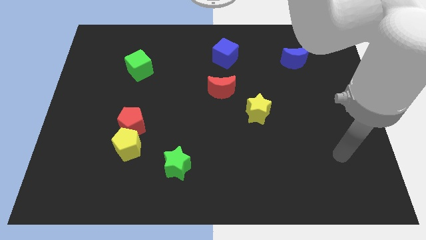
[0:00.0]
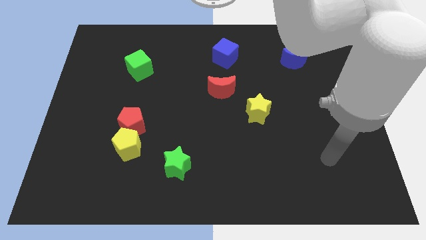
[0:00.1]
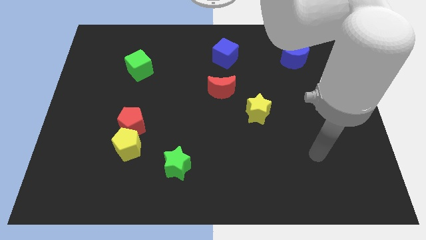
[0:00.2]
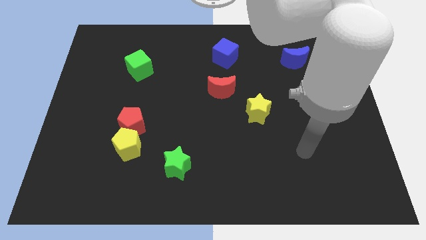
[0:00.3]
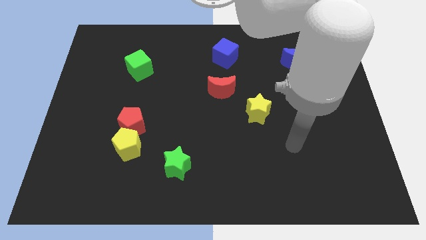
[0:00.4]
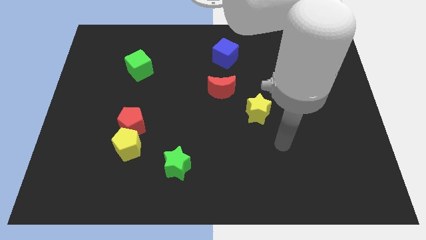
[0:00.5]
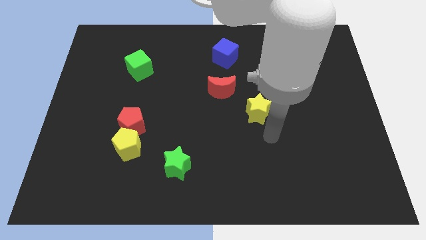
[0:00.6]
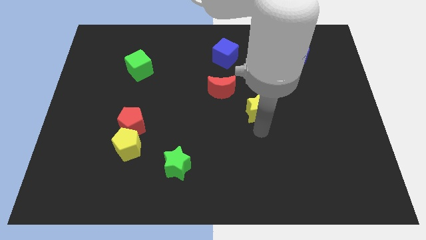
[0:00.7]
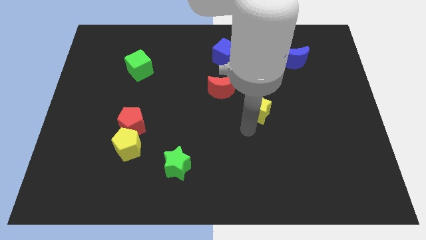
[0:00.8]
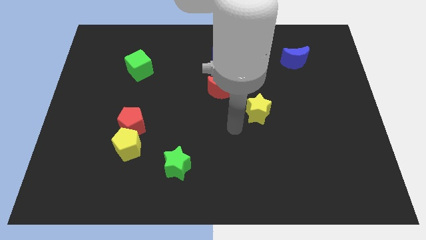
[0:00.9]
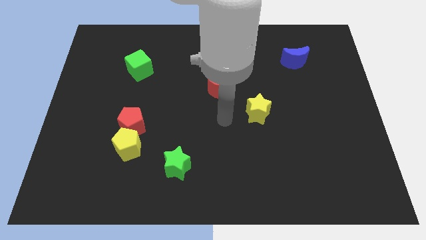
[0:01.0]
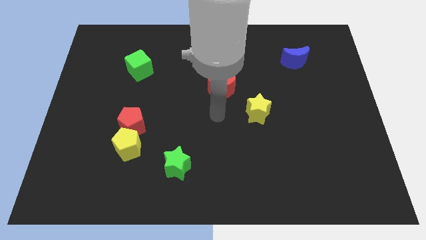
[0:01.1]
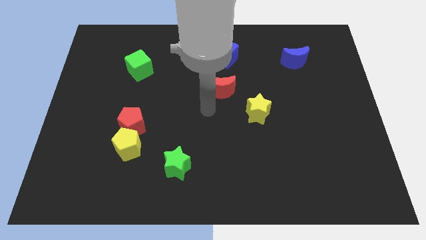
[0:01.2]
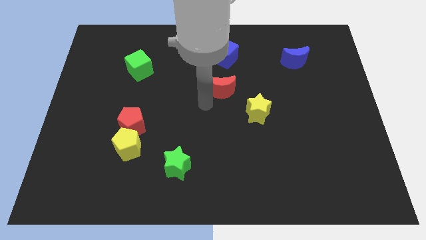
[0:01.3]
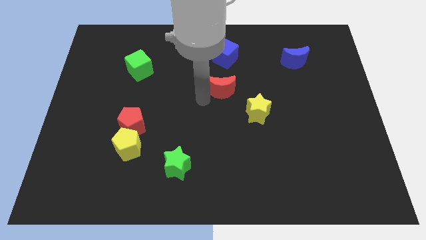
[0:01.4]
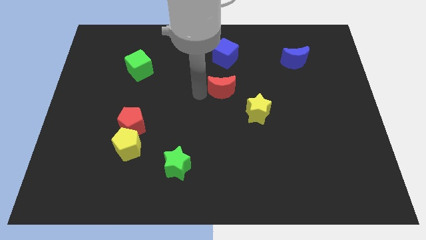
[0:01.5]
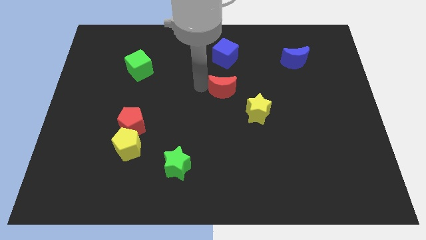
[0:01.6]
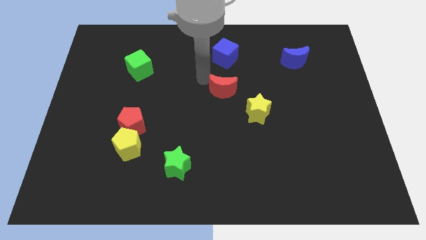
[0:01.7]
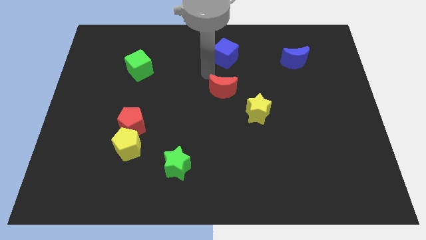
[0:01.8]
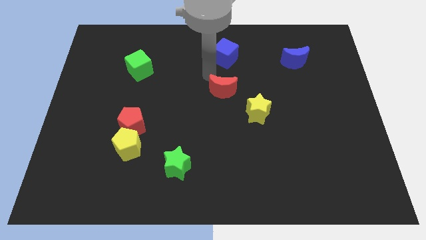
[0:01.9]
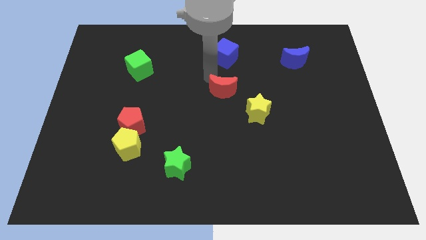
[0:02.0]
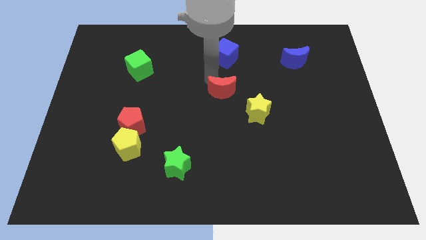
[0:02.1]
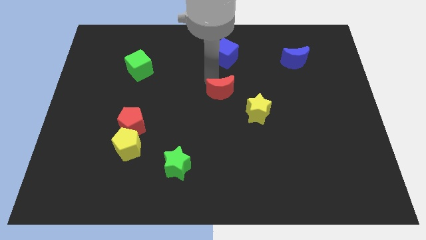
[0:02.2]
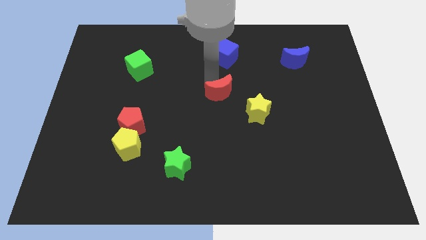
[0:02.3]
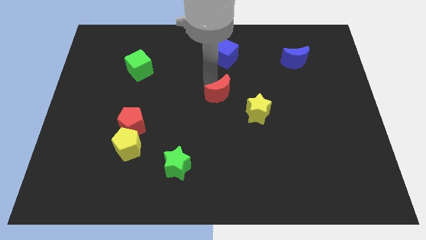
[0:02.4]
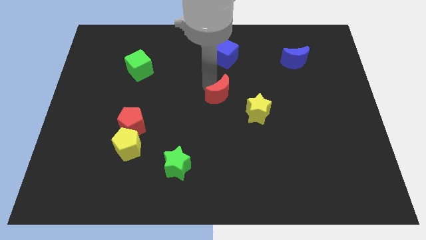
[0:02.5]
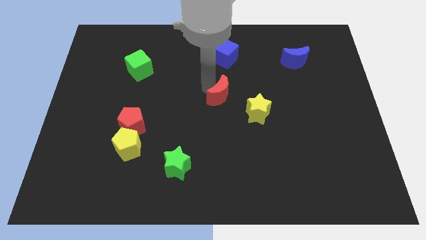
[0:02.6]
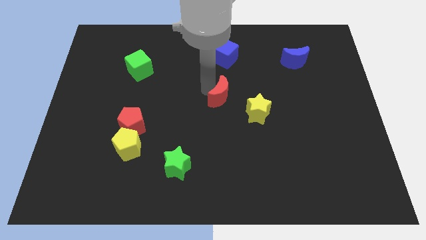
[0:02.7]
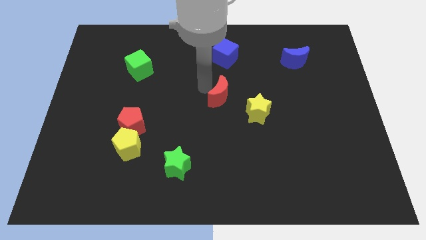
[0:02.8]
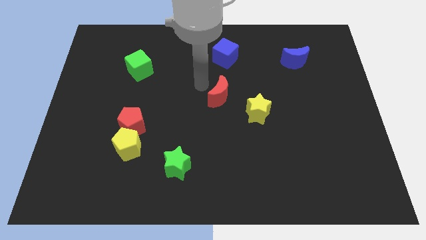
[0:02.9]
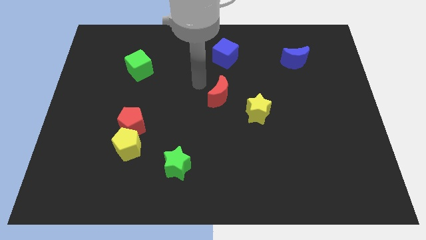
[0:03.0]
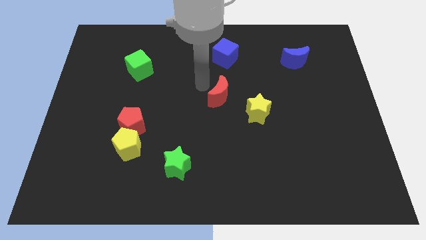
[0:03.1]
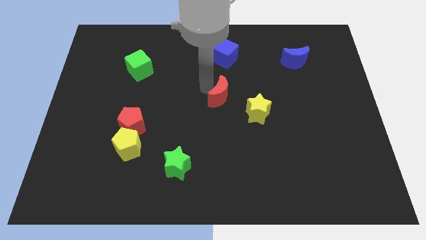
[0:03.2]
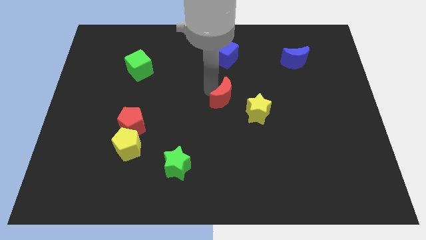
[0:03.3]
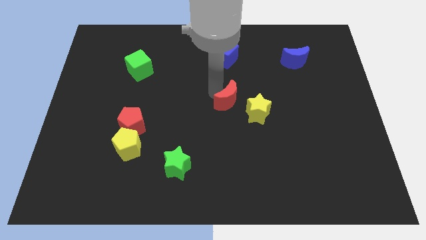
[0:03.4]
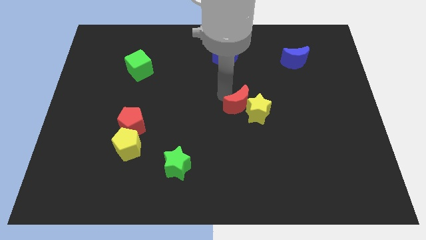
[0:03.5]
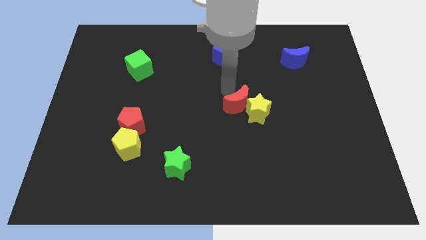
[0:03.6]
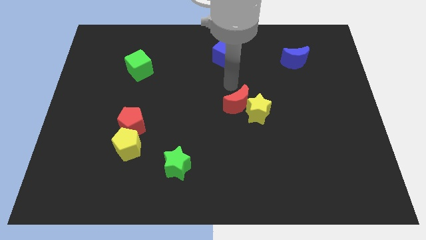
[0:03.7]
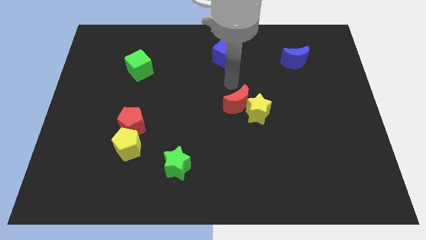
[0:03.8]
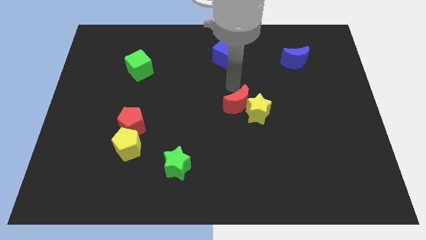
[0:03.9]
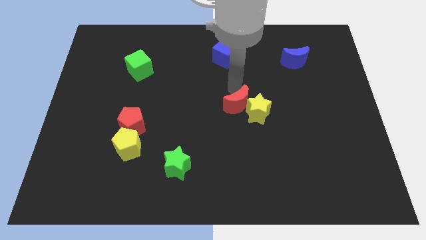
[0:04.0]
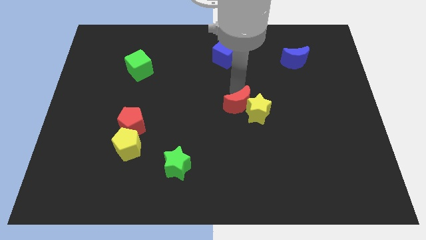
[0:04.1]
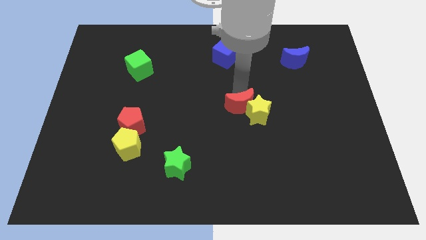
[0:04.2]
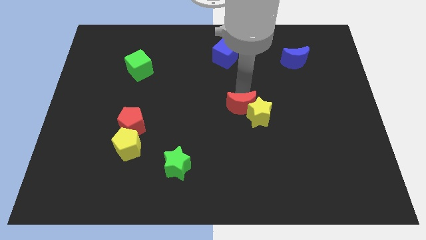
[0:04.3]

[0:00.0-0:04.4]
push the red moon down and right a little bit

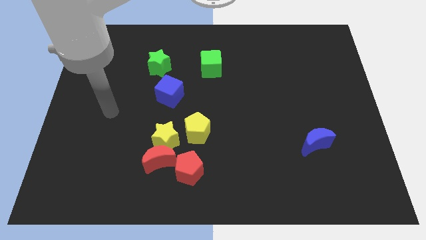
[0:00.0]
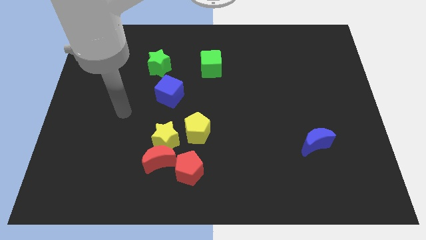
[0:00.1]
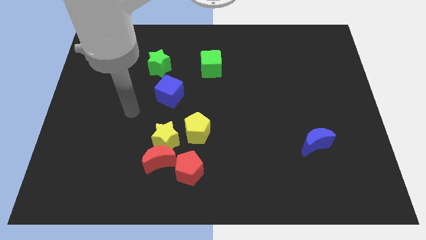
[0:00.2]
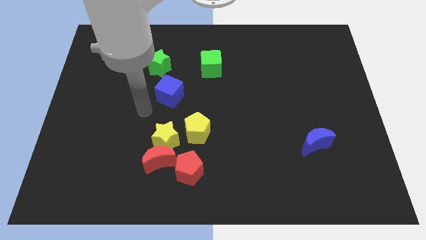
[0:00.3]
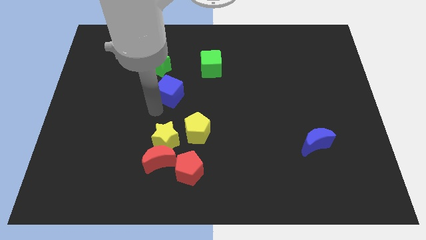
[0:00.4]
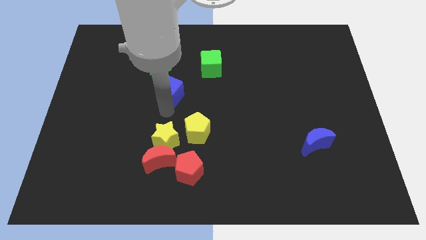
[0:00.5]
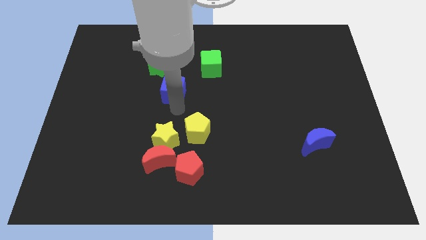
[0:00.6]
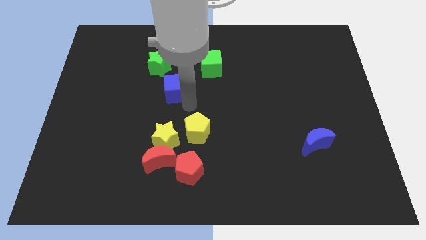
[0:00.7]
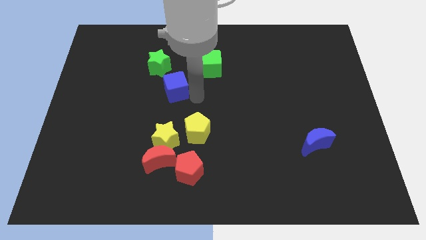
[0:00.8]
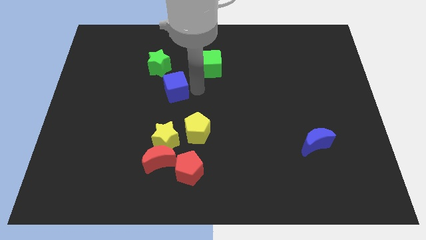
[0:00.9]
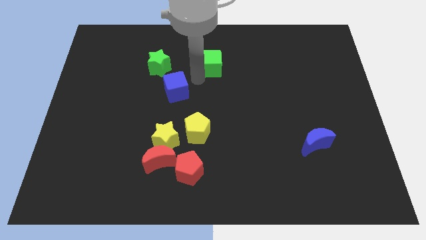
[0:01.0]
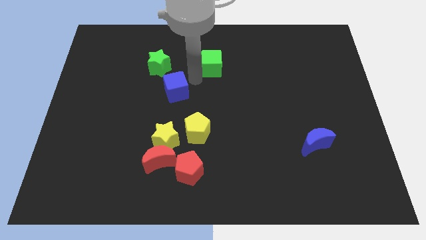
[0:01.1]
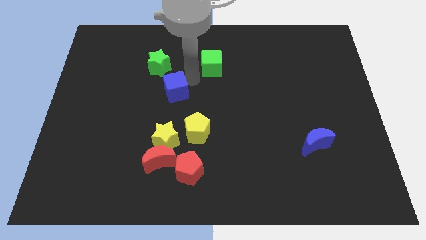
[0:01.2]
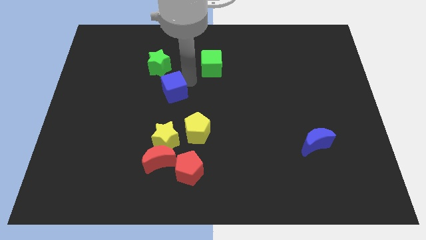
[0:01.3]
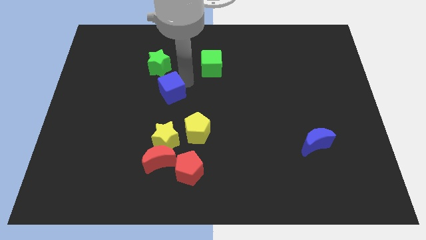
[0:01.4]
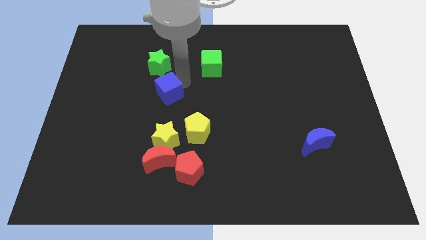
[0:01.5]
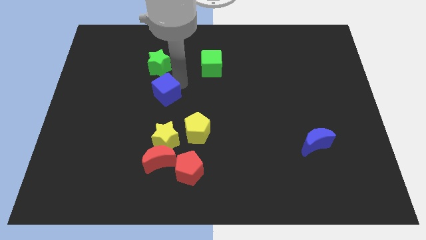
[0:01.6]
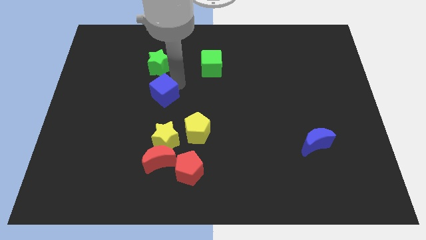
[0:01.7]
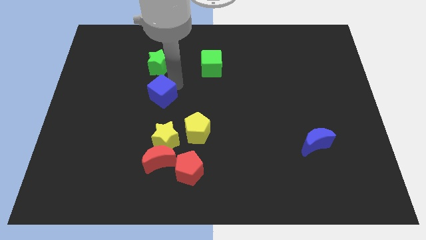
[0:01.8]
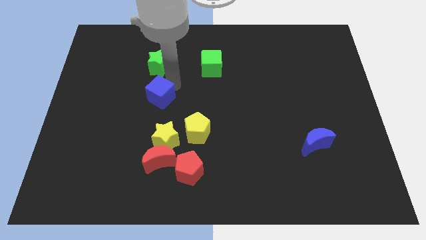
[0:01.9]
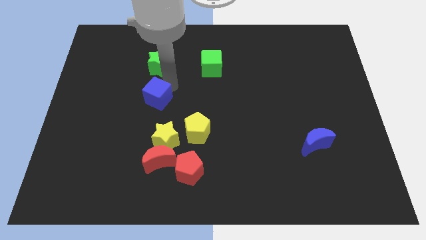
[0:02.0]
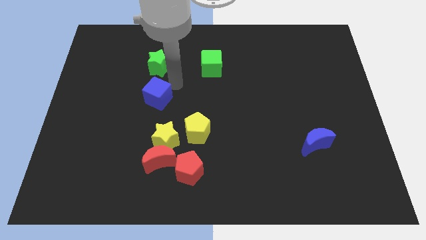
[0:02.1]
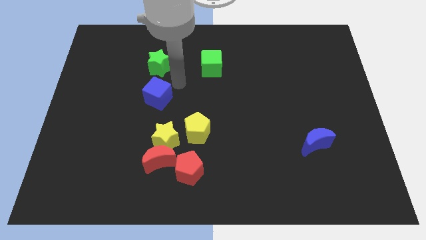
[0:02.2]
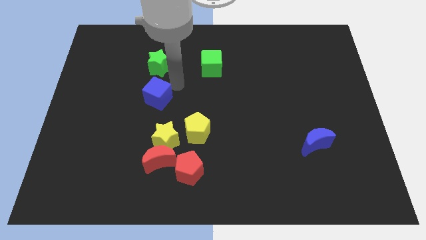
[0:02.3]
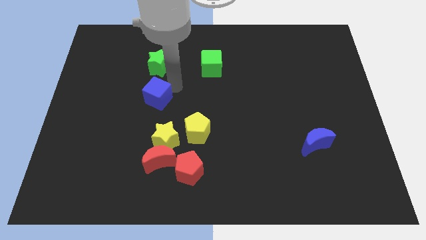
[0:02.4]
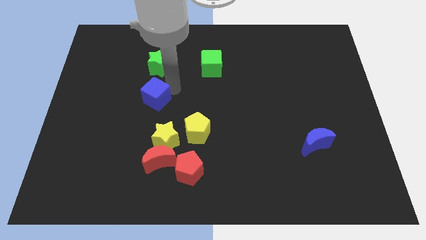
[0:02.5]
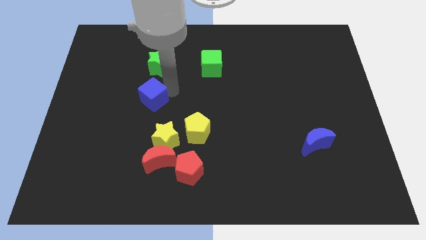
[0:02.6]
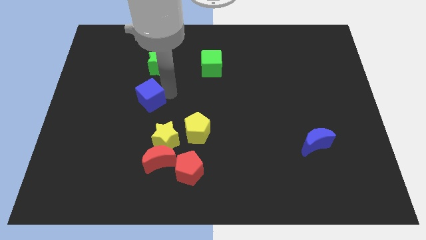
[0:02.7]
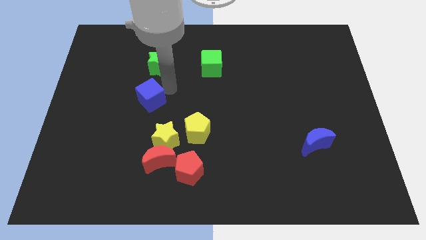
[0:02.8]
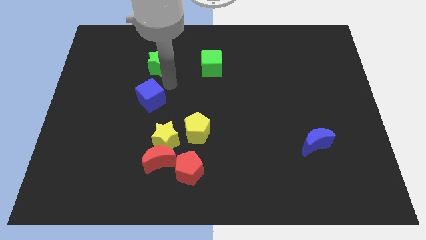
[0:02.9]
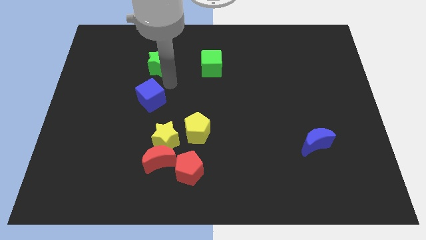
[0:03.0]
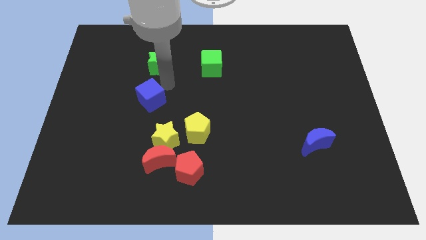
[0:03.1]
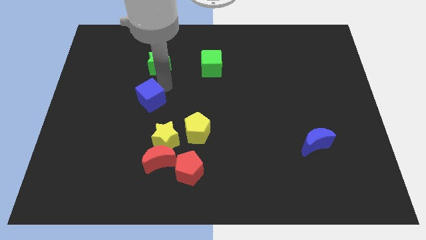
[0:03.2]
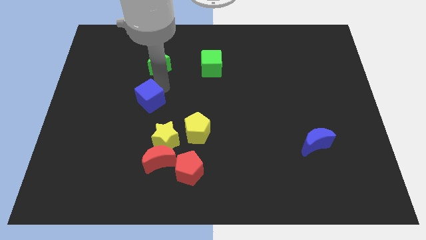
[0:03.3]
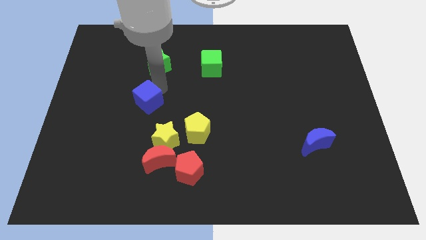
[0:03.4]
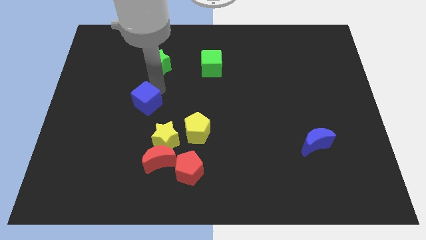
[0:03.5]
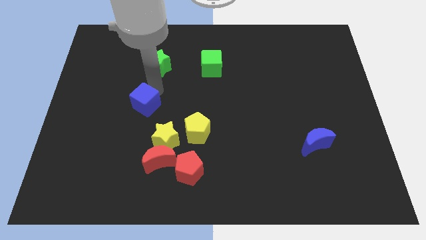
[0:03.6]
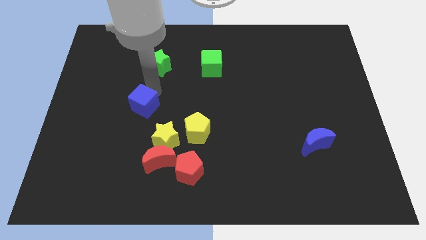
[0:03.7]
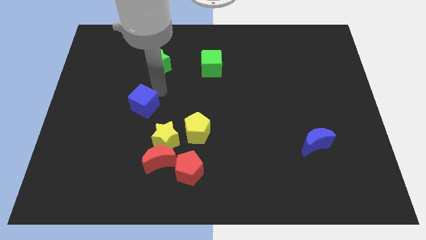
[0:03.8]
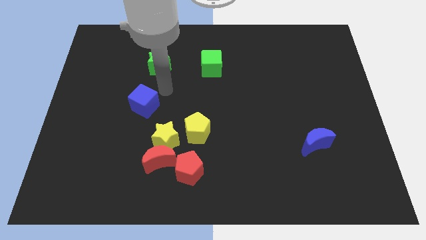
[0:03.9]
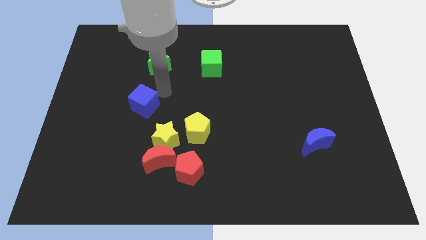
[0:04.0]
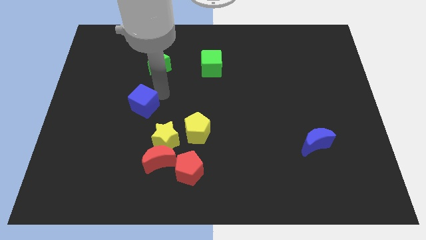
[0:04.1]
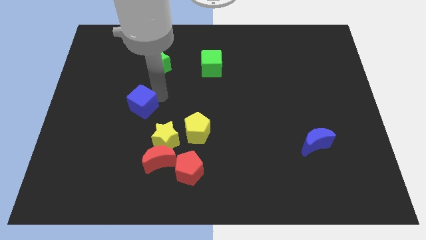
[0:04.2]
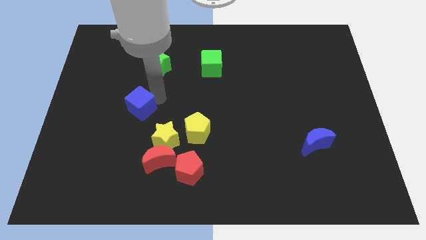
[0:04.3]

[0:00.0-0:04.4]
push the blue cube downwards and to the left diagonally a bit
